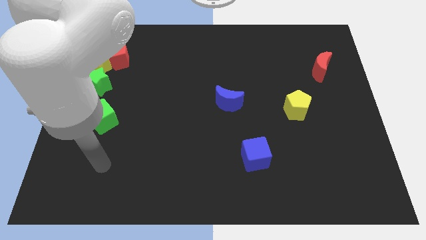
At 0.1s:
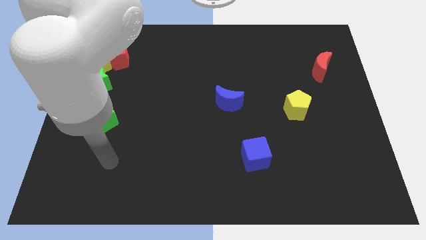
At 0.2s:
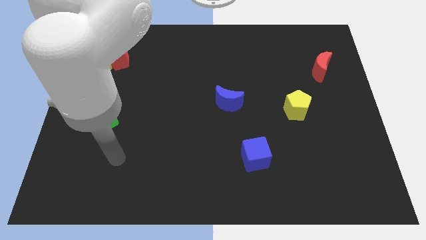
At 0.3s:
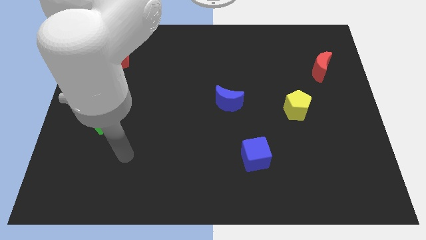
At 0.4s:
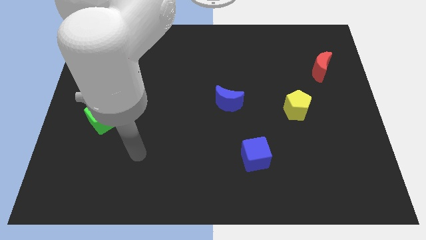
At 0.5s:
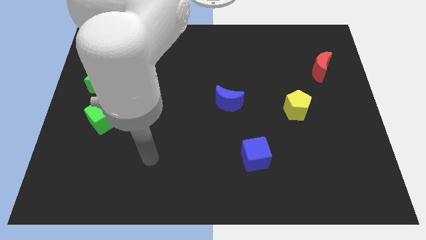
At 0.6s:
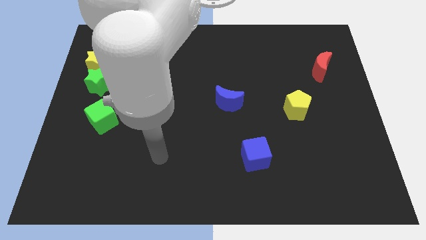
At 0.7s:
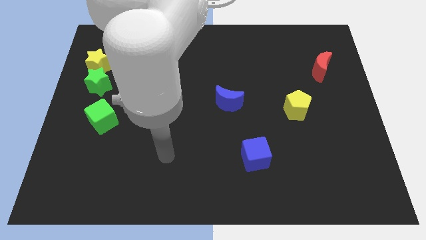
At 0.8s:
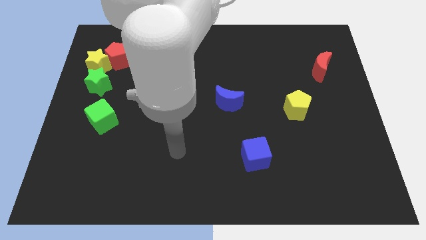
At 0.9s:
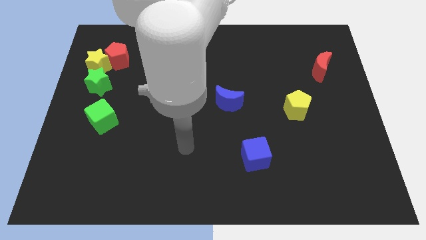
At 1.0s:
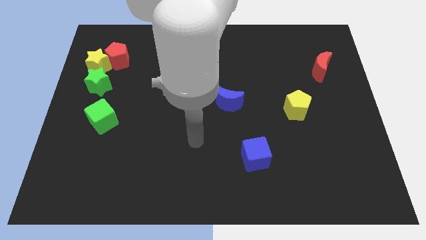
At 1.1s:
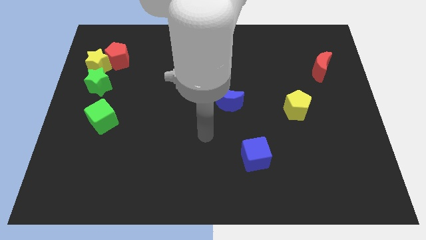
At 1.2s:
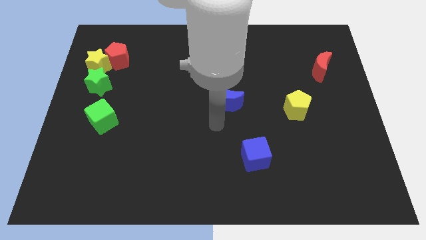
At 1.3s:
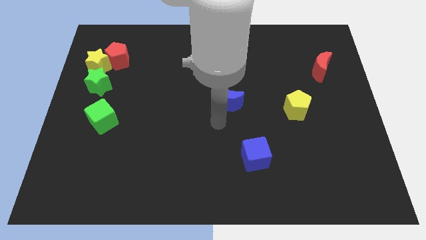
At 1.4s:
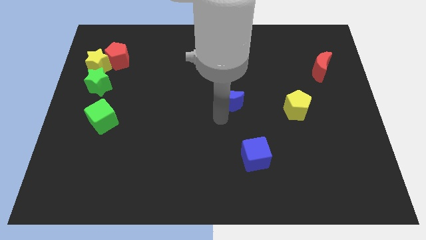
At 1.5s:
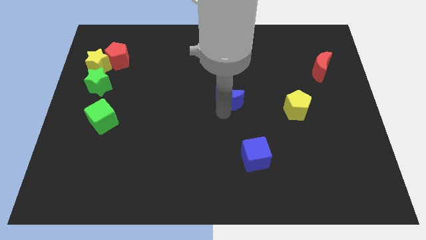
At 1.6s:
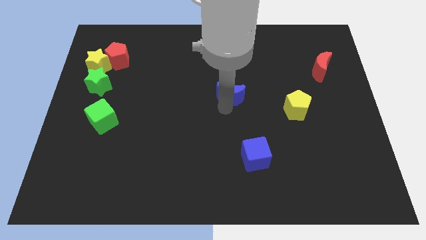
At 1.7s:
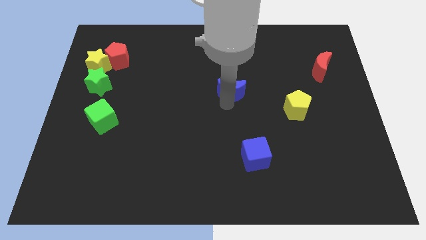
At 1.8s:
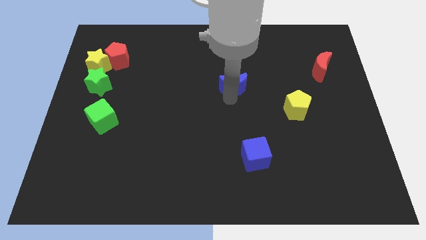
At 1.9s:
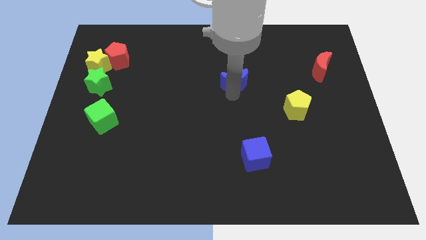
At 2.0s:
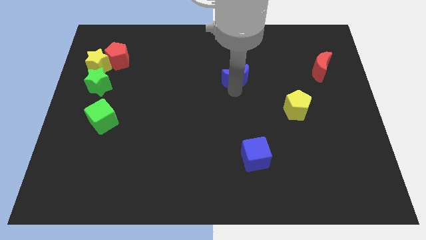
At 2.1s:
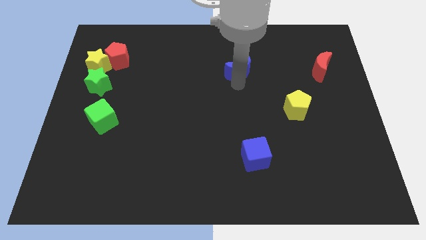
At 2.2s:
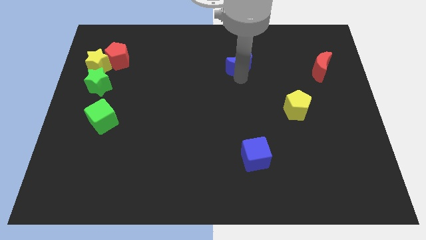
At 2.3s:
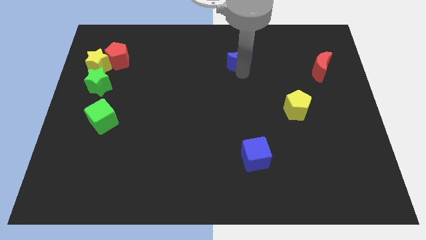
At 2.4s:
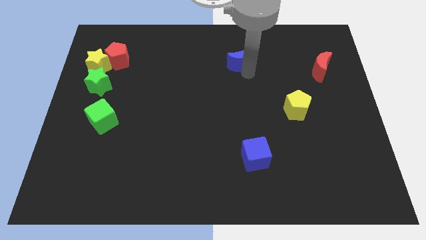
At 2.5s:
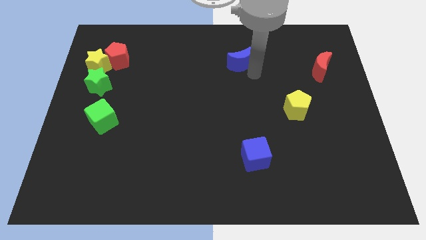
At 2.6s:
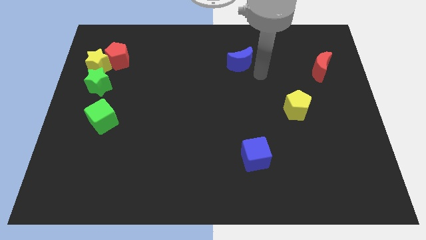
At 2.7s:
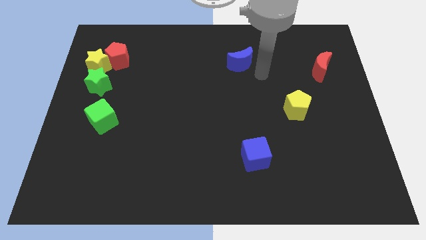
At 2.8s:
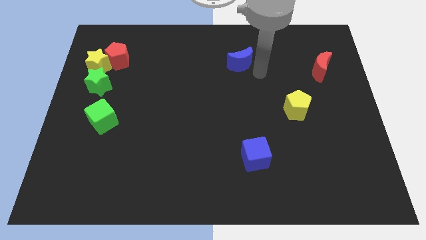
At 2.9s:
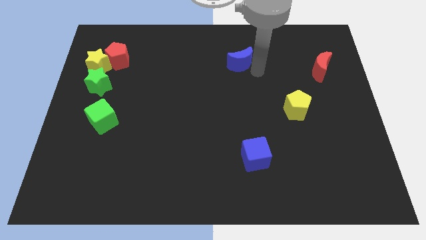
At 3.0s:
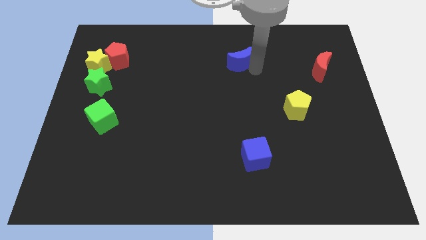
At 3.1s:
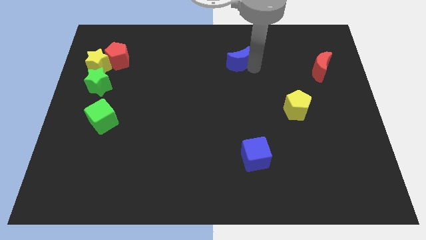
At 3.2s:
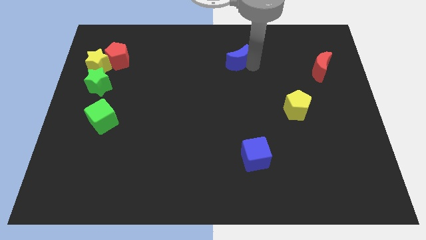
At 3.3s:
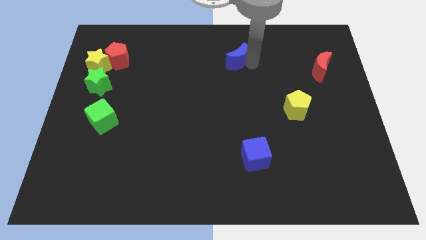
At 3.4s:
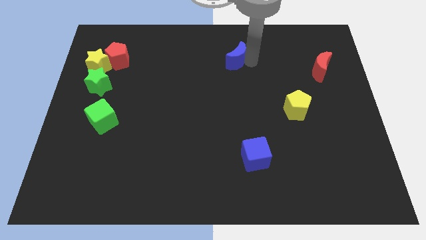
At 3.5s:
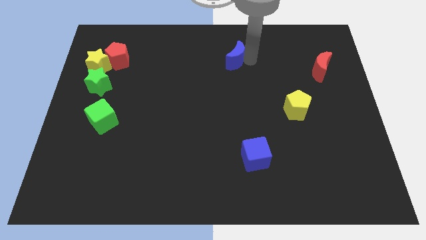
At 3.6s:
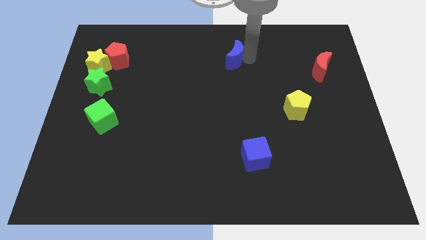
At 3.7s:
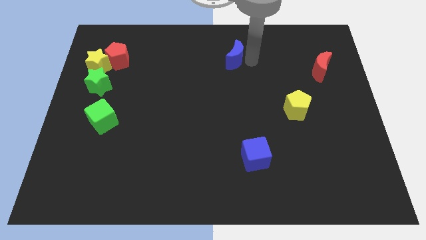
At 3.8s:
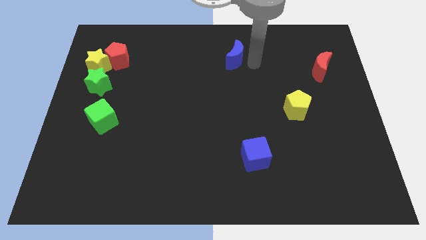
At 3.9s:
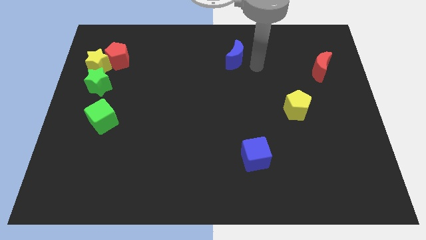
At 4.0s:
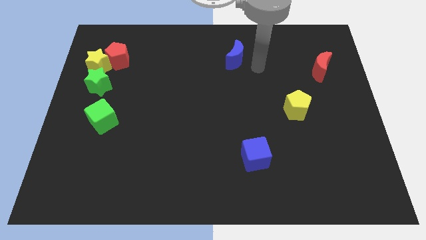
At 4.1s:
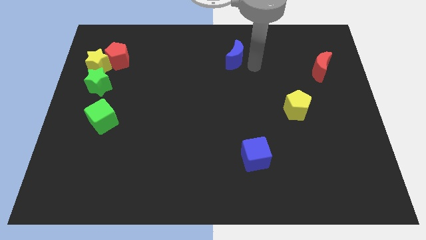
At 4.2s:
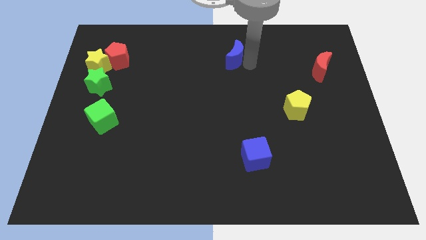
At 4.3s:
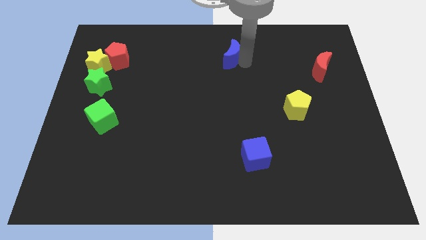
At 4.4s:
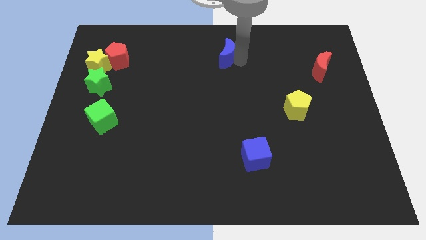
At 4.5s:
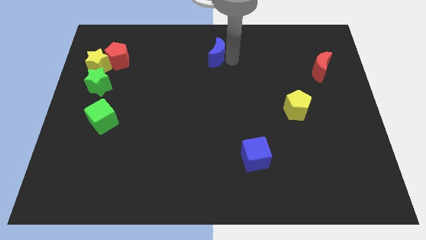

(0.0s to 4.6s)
slide the blue moon to the top side

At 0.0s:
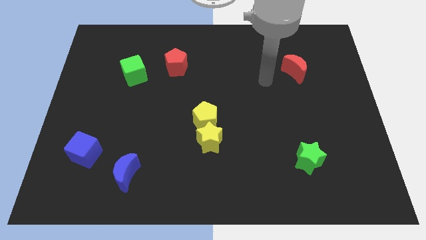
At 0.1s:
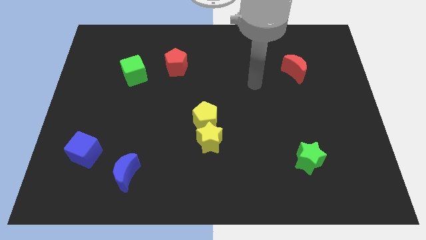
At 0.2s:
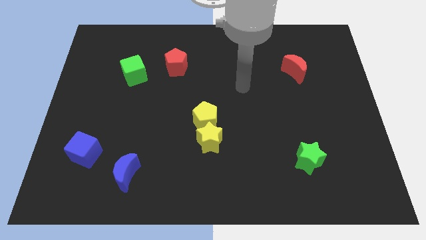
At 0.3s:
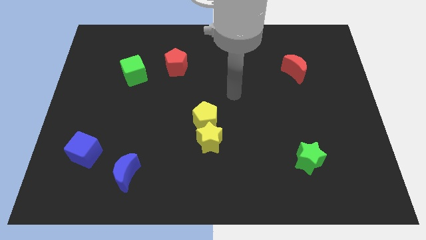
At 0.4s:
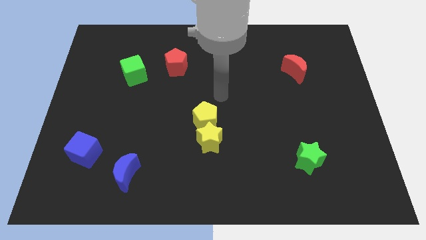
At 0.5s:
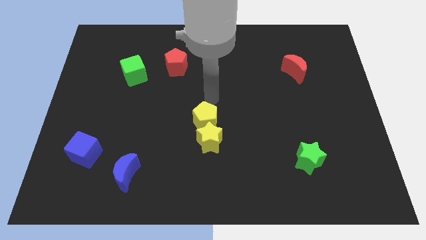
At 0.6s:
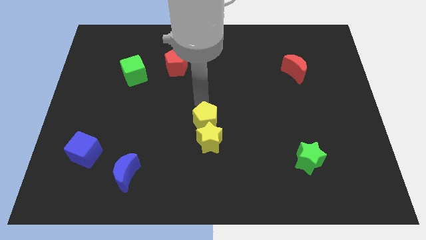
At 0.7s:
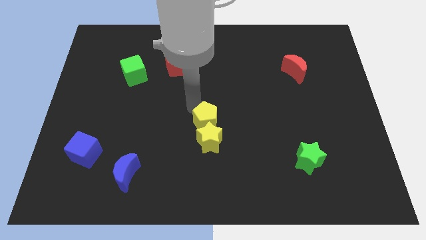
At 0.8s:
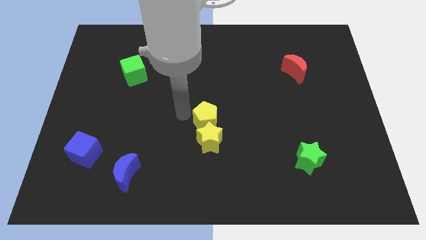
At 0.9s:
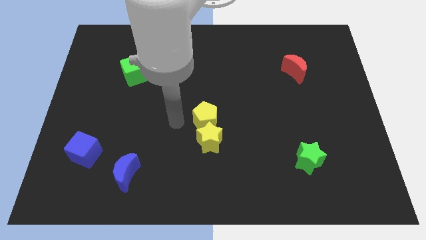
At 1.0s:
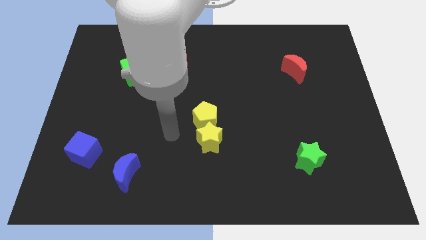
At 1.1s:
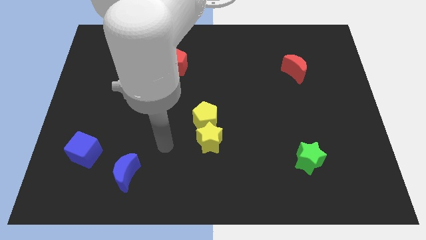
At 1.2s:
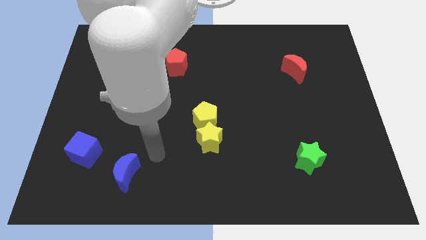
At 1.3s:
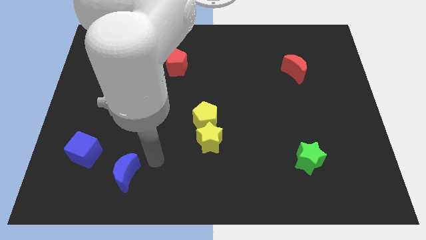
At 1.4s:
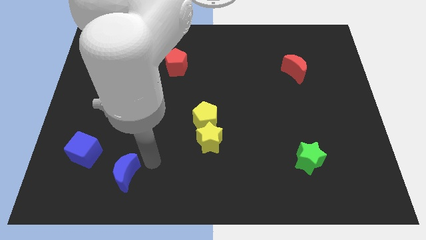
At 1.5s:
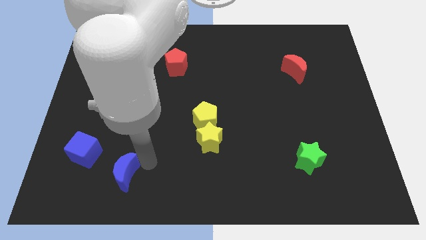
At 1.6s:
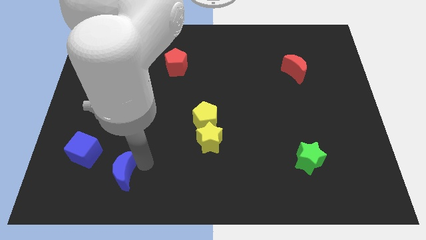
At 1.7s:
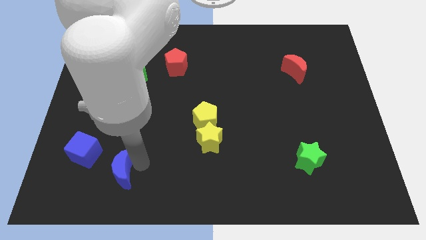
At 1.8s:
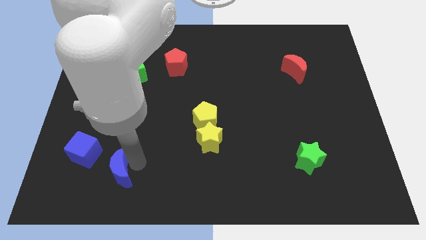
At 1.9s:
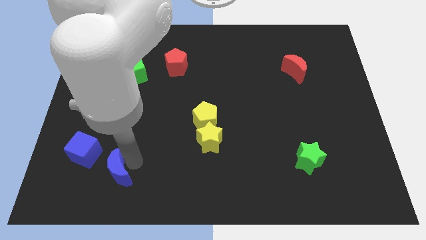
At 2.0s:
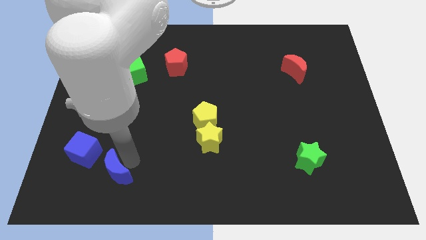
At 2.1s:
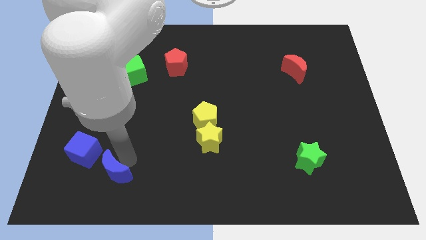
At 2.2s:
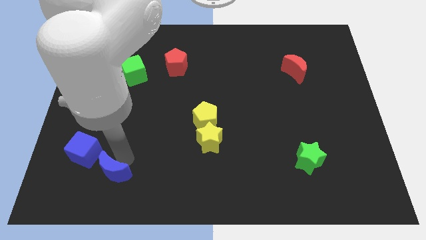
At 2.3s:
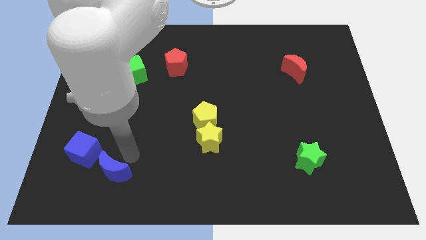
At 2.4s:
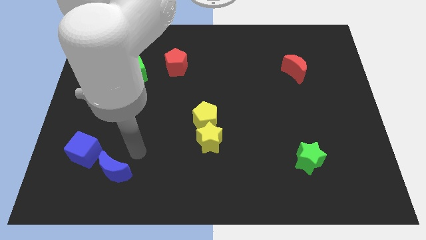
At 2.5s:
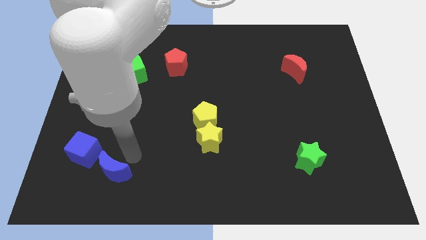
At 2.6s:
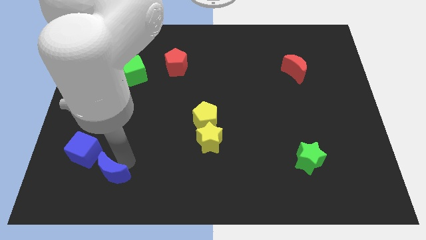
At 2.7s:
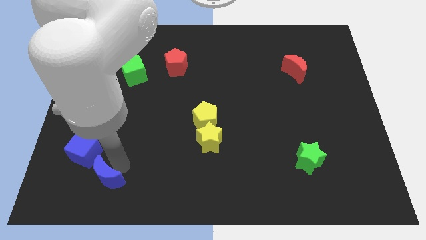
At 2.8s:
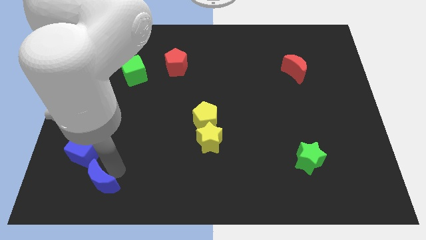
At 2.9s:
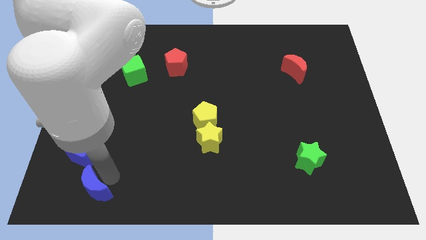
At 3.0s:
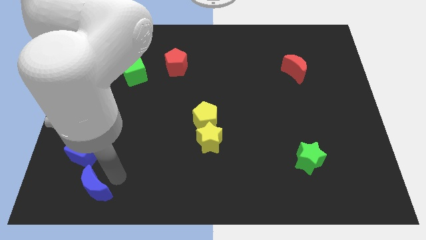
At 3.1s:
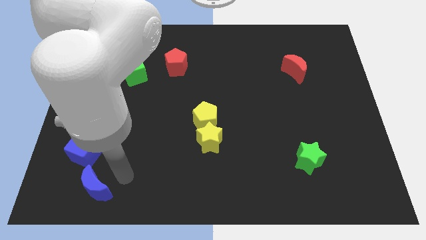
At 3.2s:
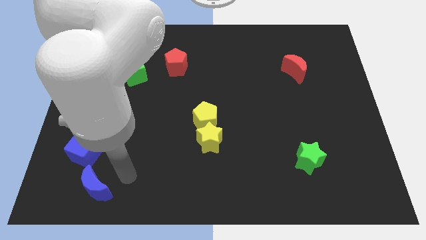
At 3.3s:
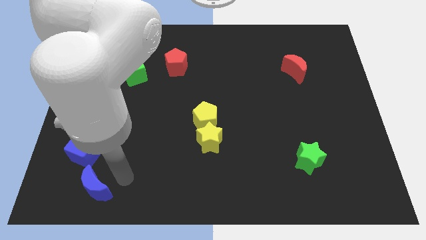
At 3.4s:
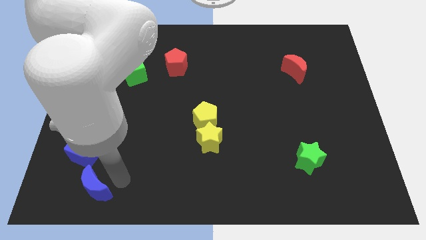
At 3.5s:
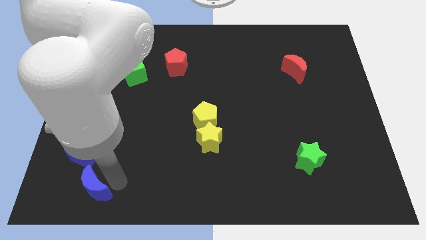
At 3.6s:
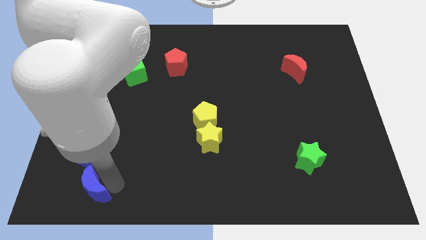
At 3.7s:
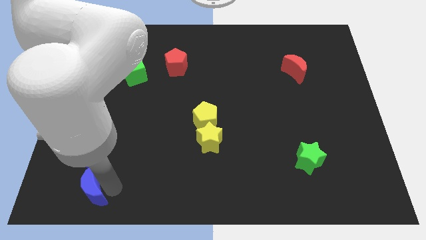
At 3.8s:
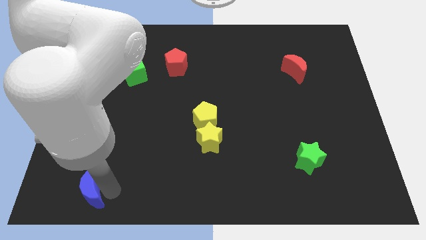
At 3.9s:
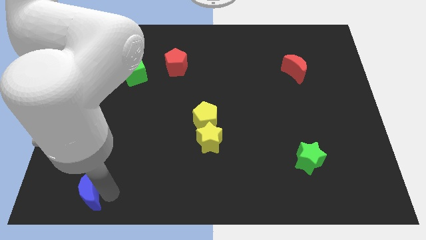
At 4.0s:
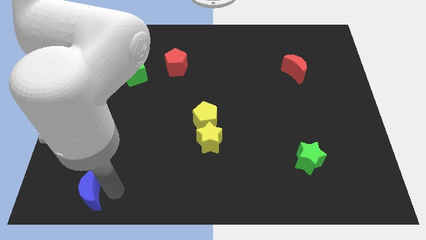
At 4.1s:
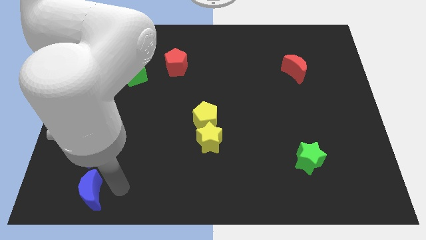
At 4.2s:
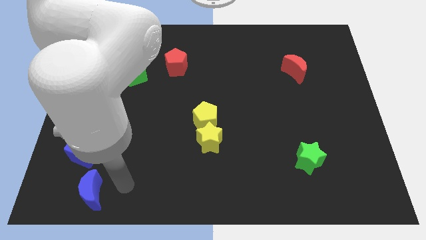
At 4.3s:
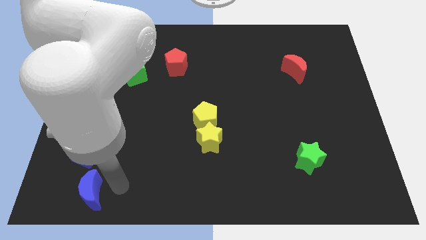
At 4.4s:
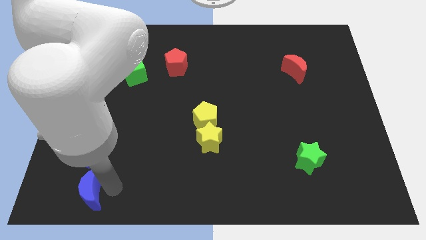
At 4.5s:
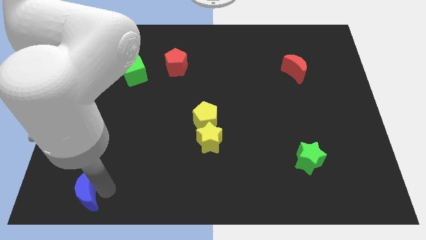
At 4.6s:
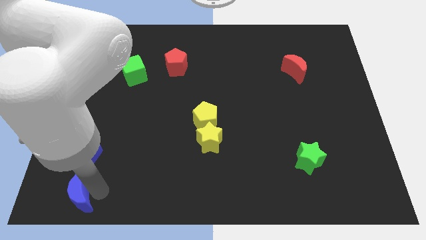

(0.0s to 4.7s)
put the blue moon to the lower left corner
